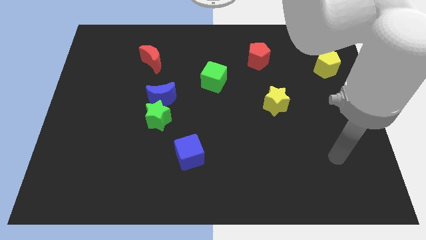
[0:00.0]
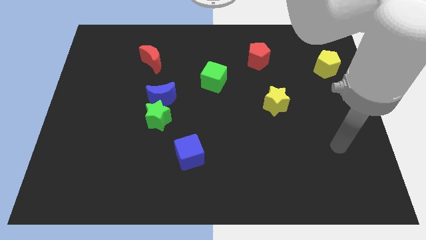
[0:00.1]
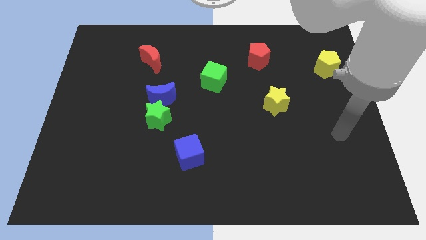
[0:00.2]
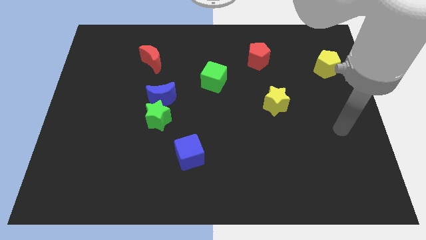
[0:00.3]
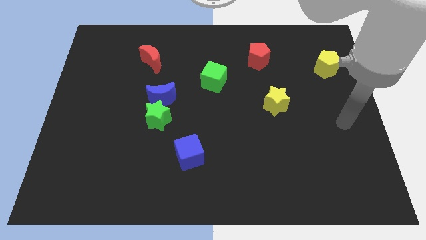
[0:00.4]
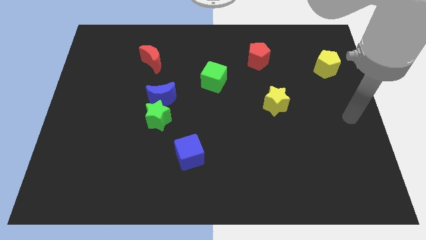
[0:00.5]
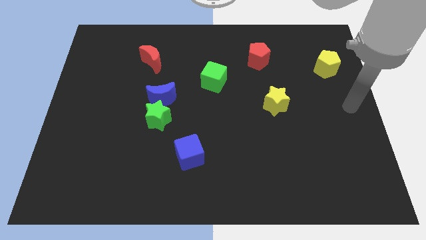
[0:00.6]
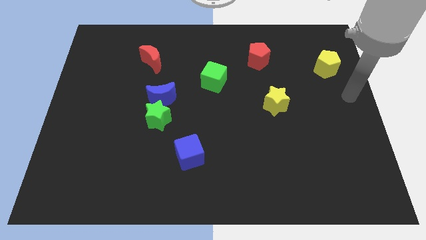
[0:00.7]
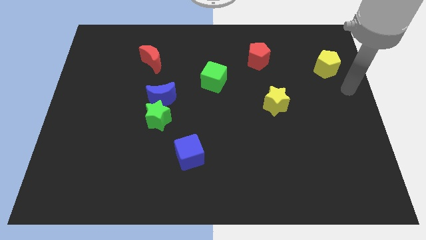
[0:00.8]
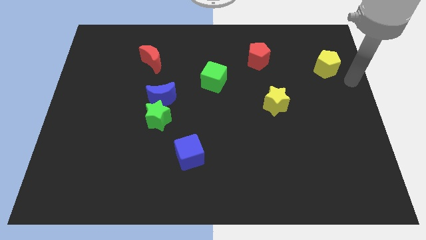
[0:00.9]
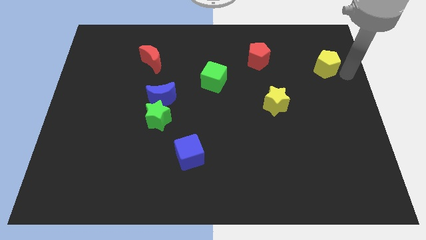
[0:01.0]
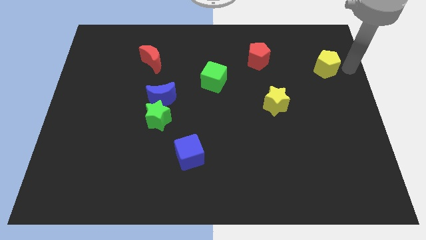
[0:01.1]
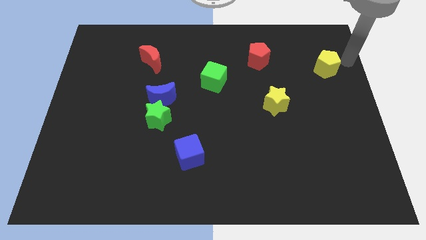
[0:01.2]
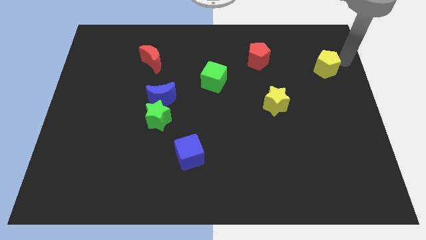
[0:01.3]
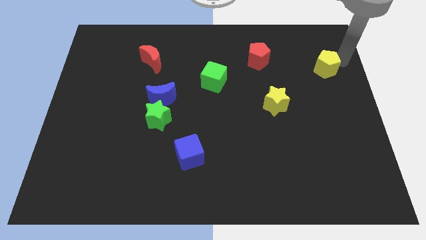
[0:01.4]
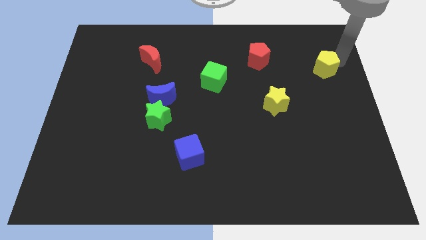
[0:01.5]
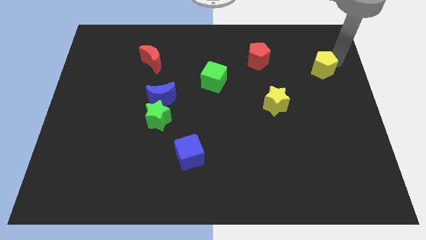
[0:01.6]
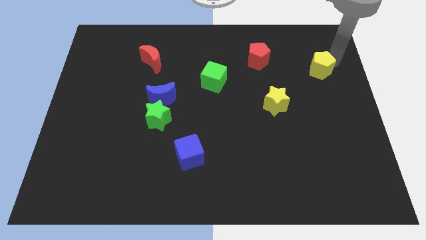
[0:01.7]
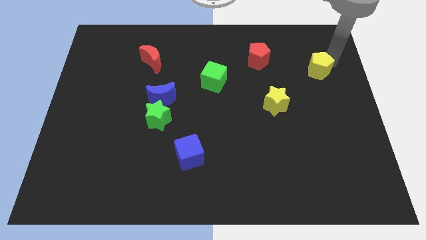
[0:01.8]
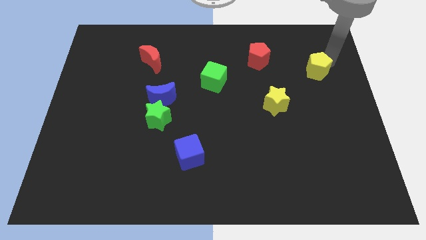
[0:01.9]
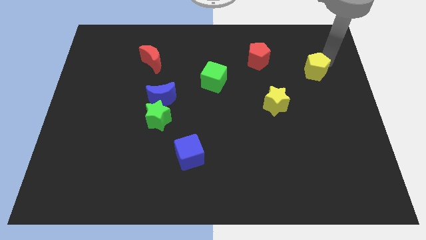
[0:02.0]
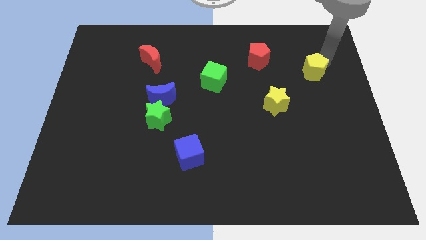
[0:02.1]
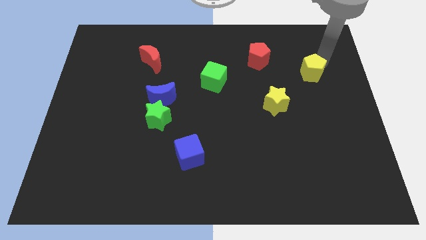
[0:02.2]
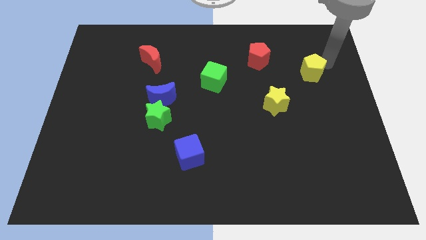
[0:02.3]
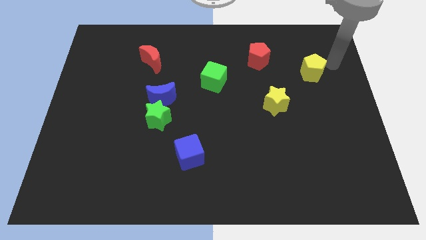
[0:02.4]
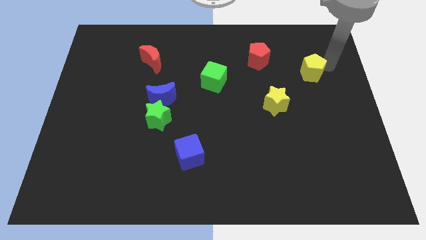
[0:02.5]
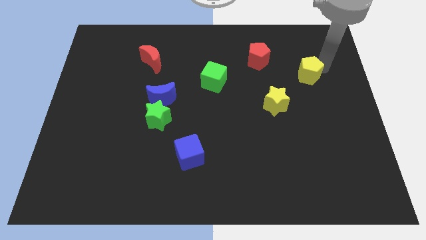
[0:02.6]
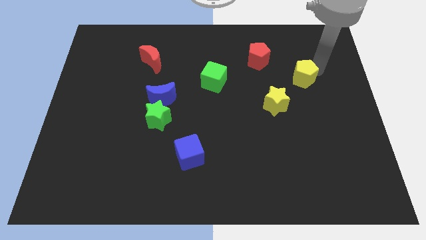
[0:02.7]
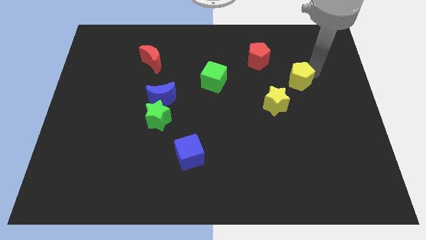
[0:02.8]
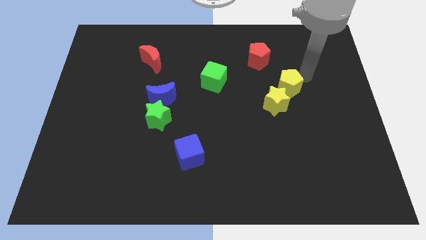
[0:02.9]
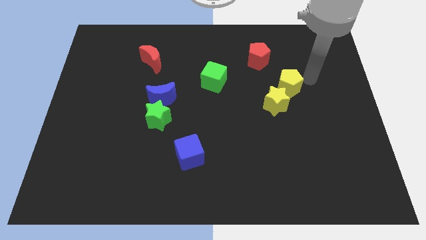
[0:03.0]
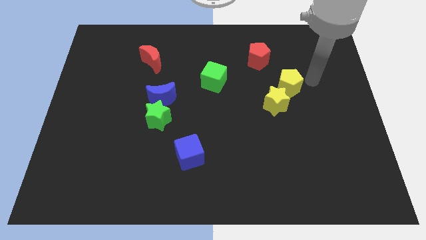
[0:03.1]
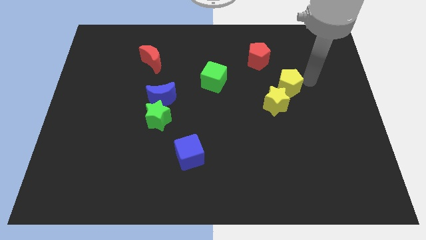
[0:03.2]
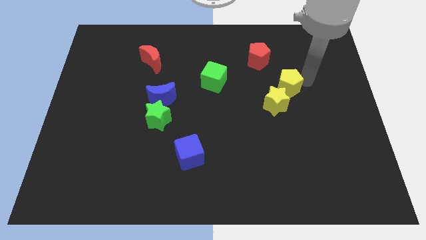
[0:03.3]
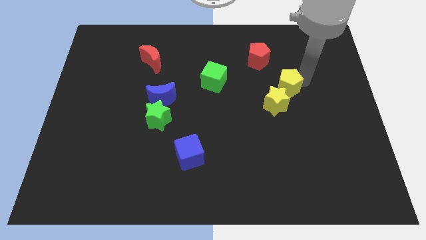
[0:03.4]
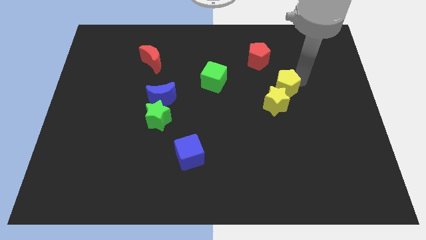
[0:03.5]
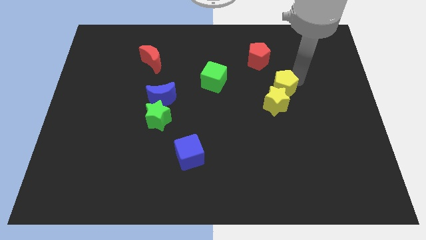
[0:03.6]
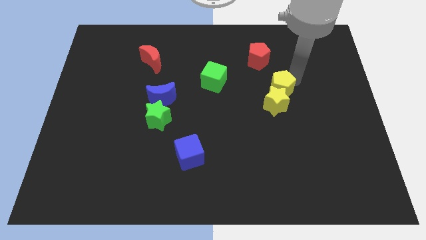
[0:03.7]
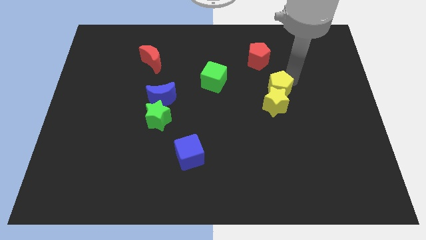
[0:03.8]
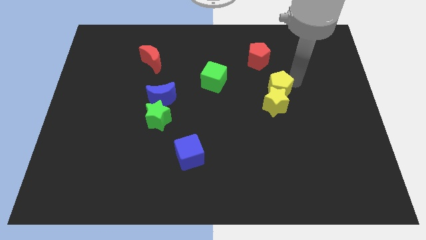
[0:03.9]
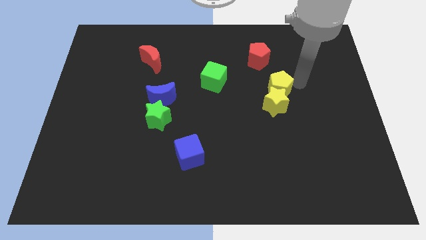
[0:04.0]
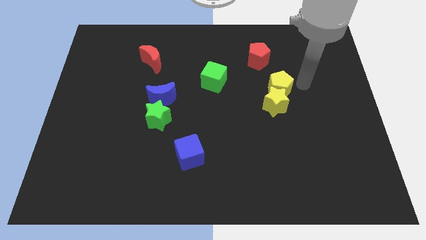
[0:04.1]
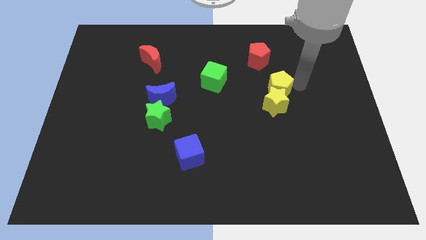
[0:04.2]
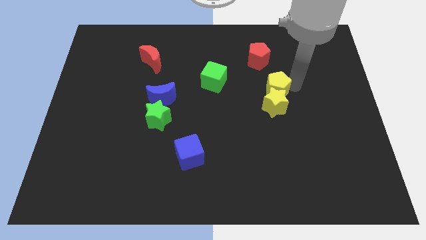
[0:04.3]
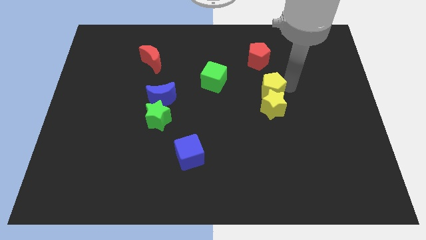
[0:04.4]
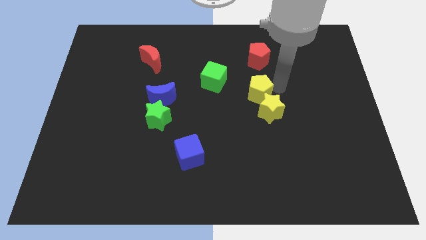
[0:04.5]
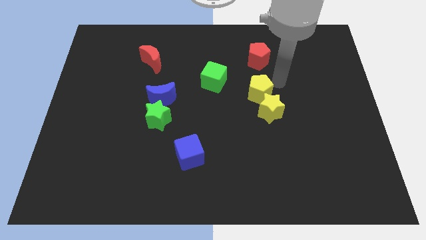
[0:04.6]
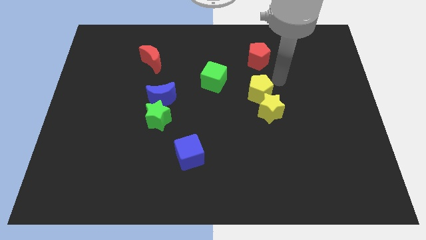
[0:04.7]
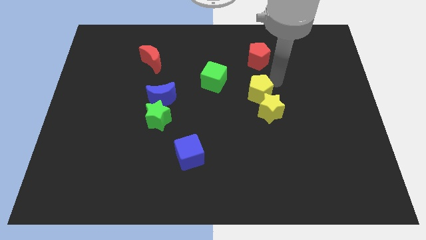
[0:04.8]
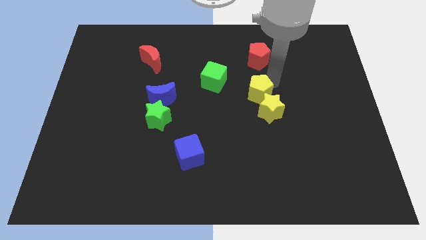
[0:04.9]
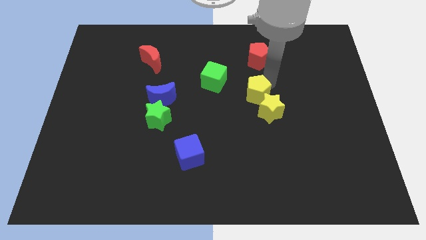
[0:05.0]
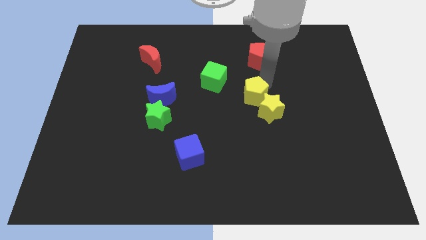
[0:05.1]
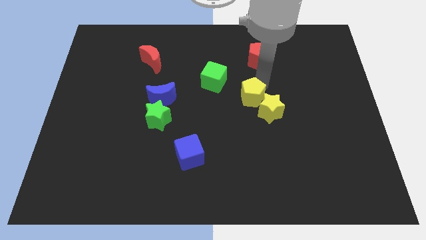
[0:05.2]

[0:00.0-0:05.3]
push the yellow pentagon just left of the yellow star

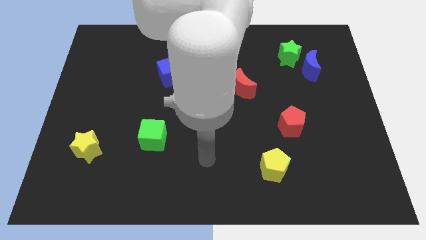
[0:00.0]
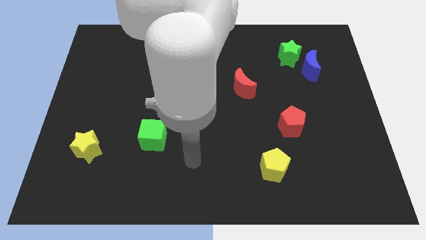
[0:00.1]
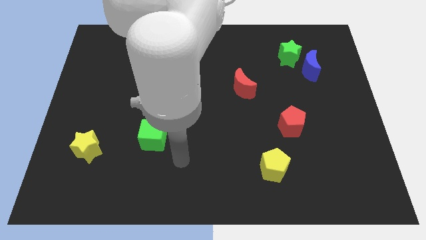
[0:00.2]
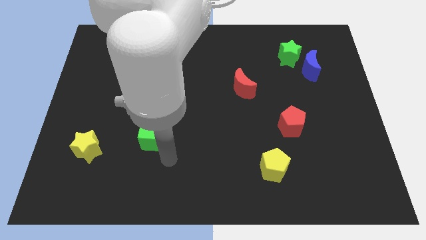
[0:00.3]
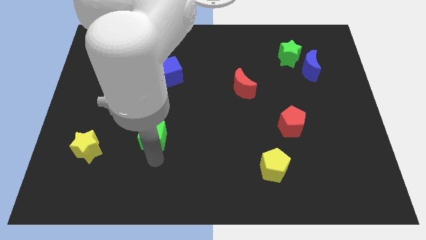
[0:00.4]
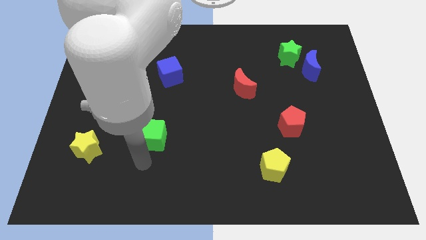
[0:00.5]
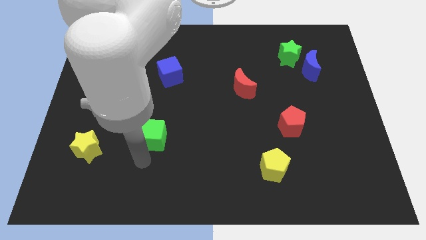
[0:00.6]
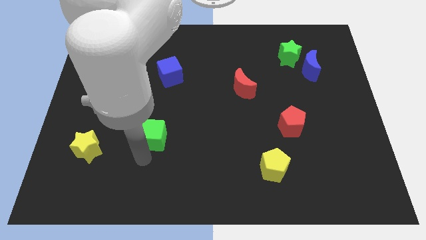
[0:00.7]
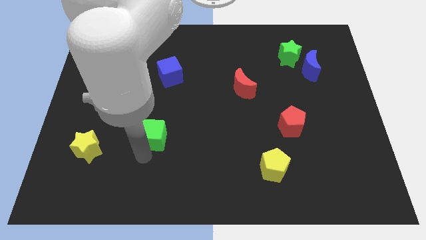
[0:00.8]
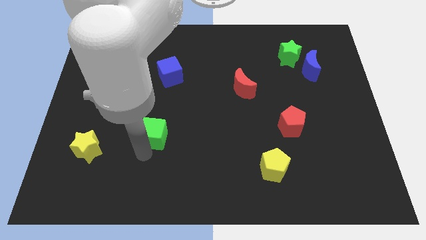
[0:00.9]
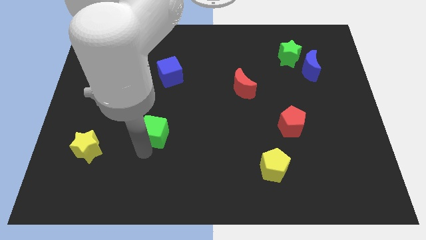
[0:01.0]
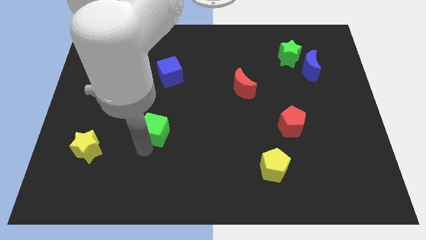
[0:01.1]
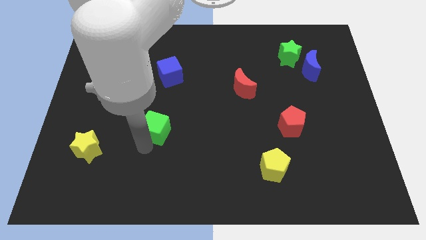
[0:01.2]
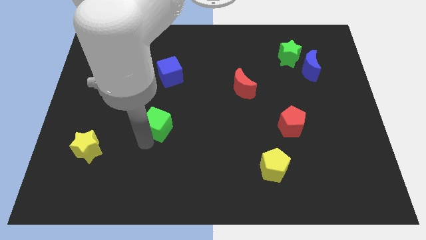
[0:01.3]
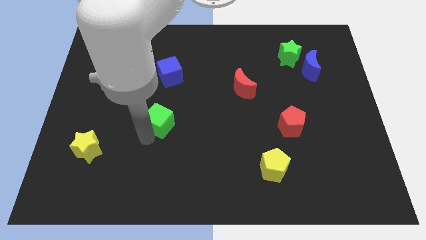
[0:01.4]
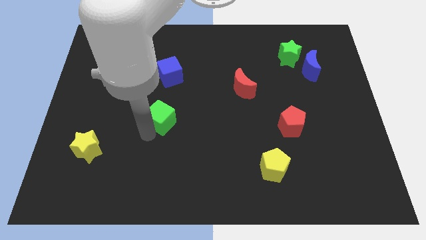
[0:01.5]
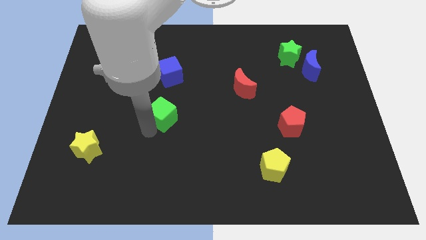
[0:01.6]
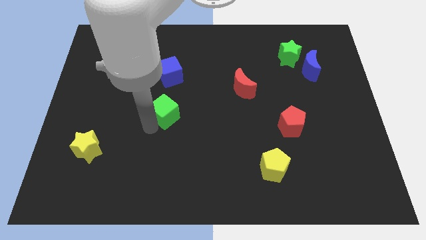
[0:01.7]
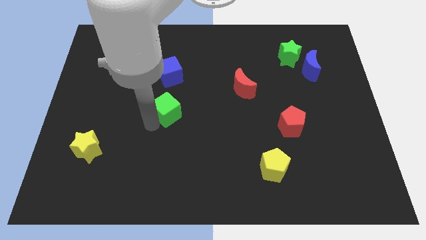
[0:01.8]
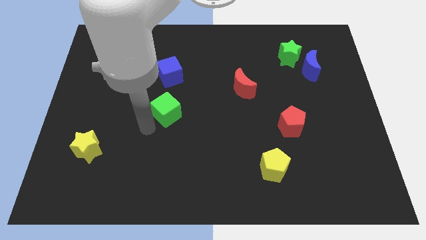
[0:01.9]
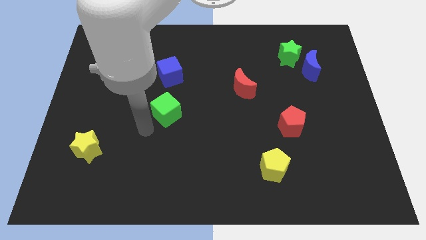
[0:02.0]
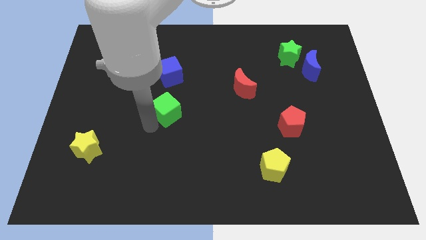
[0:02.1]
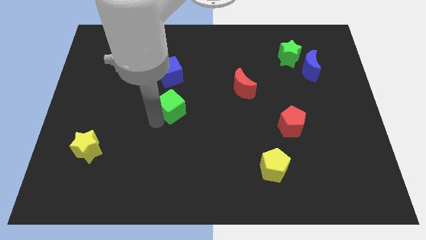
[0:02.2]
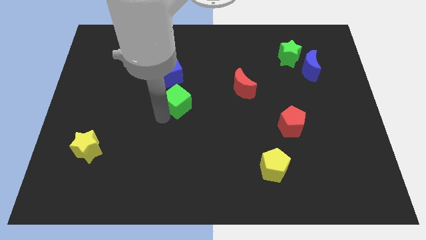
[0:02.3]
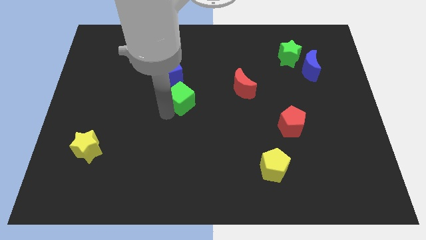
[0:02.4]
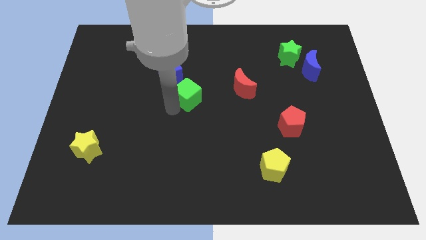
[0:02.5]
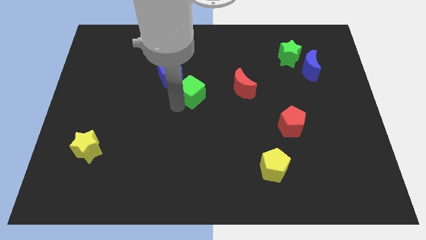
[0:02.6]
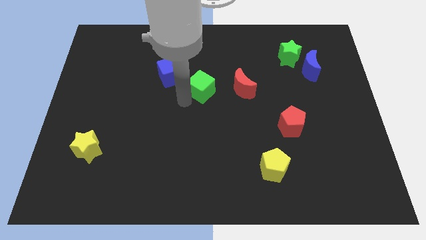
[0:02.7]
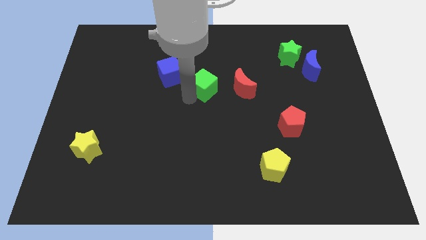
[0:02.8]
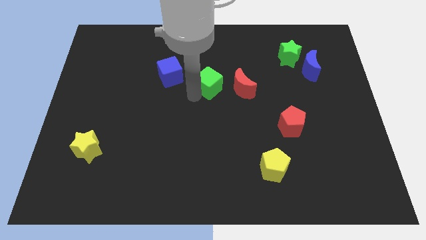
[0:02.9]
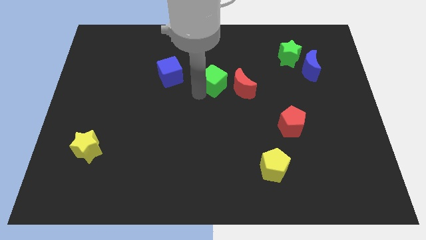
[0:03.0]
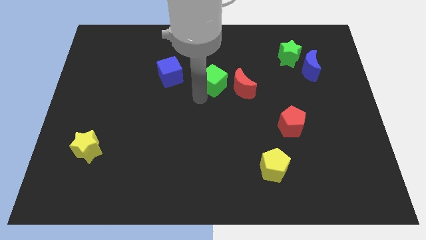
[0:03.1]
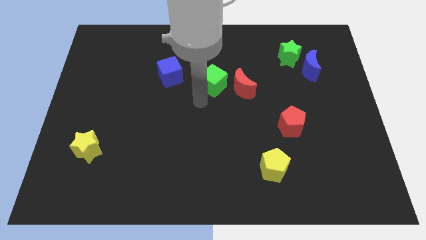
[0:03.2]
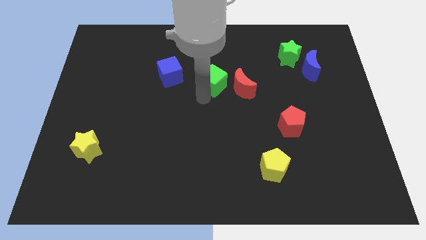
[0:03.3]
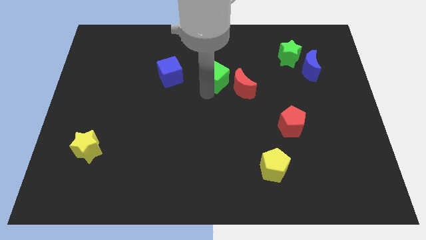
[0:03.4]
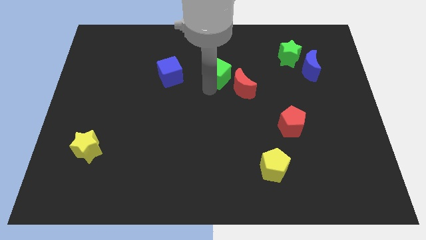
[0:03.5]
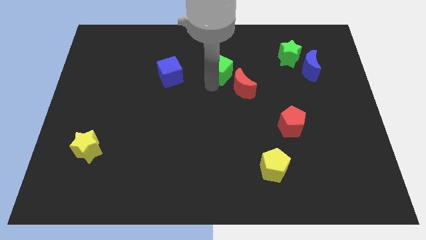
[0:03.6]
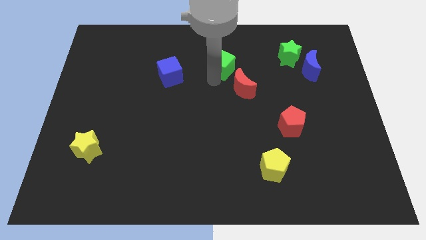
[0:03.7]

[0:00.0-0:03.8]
push the green cube to the top of the red moon
